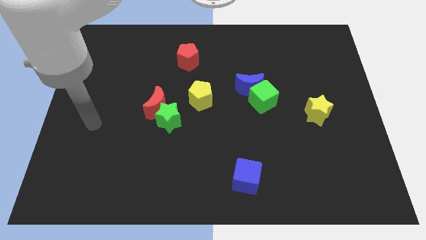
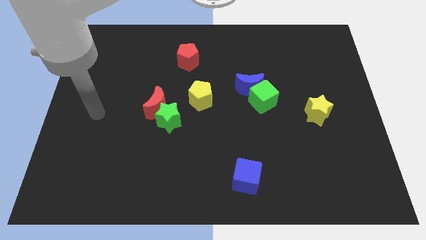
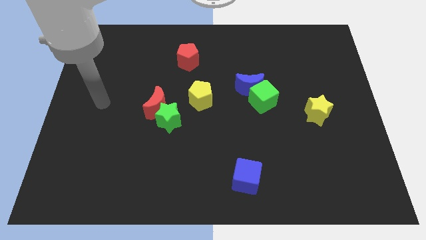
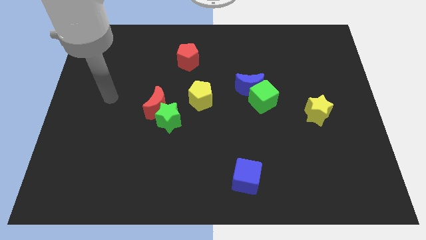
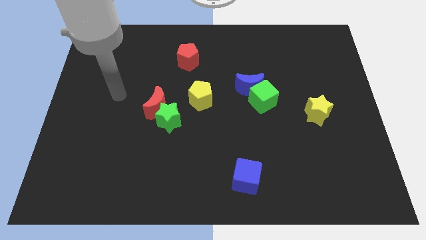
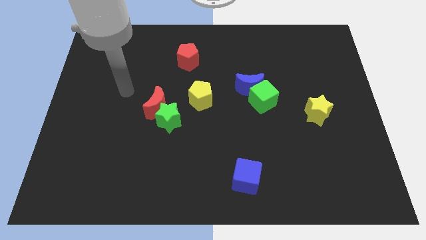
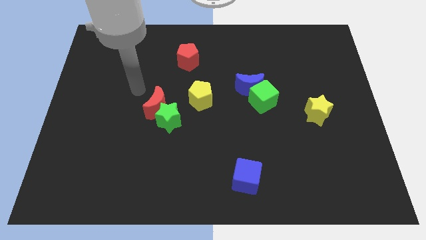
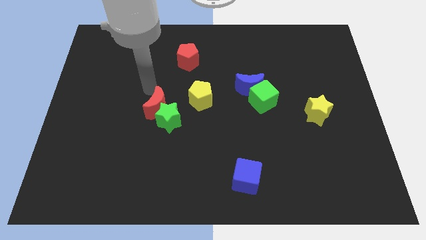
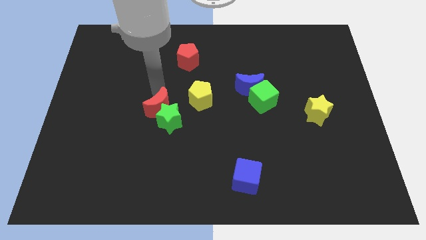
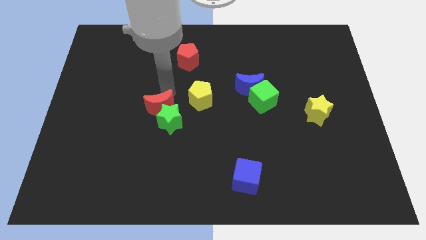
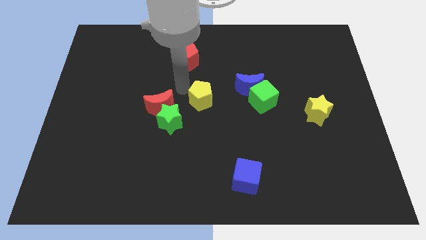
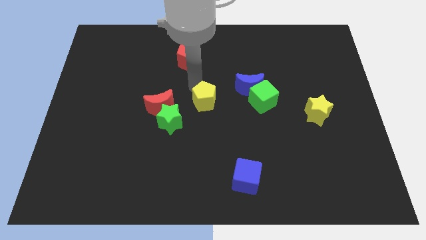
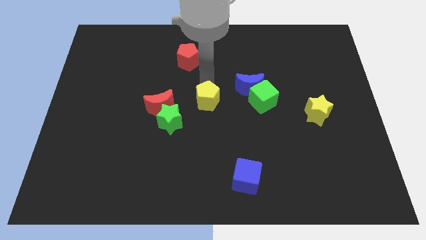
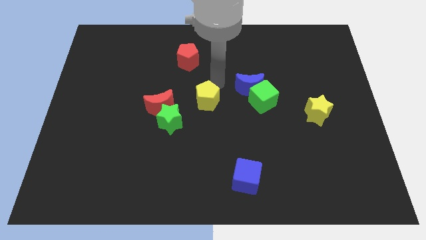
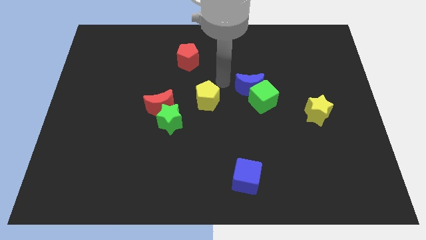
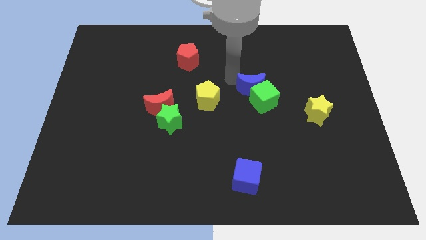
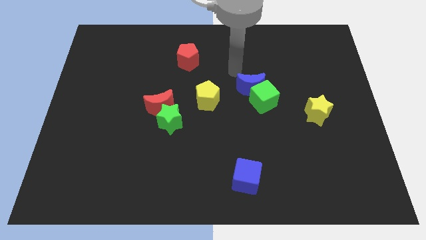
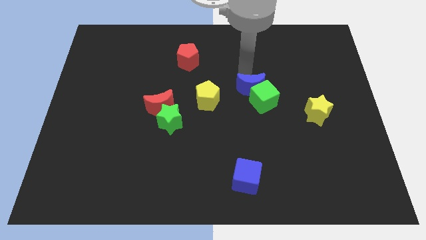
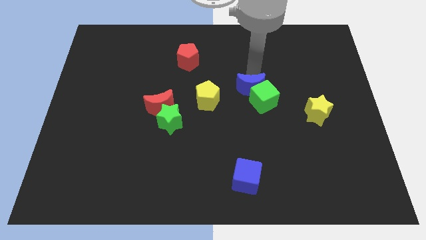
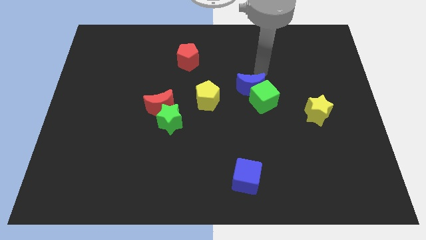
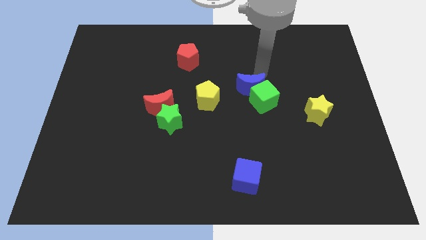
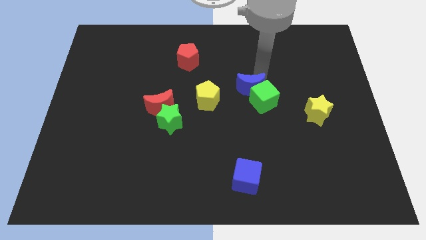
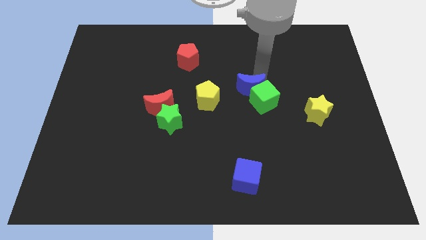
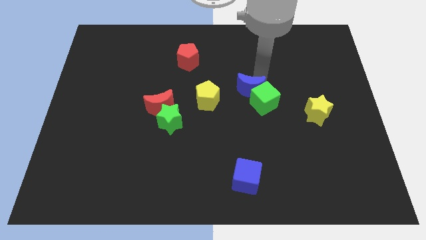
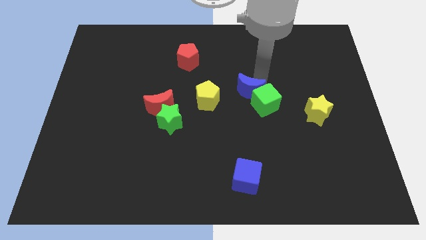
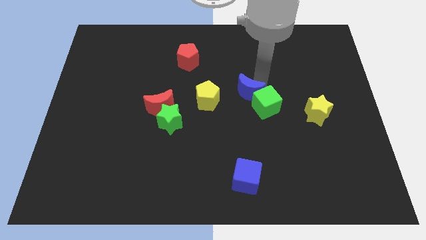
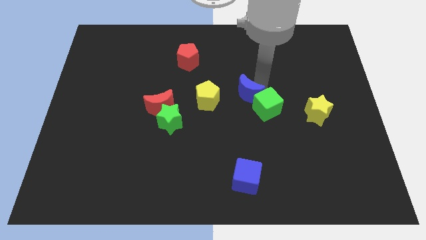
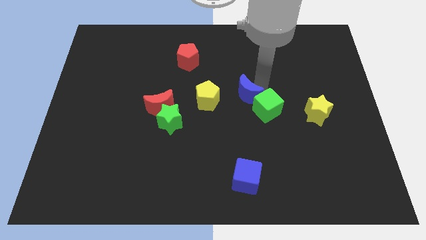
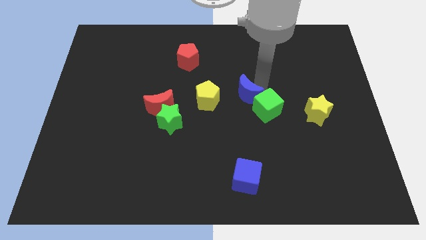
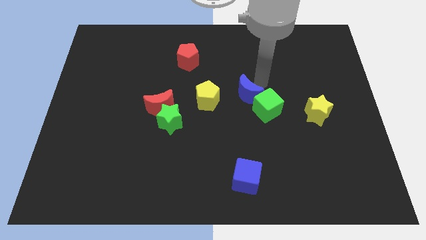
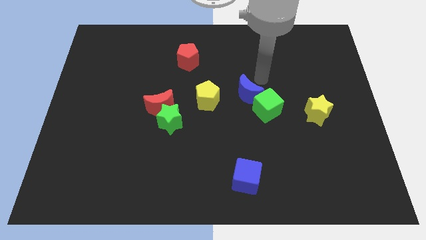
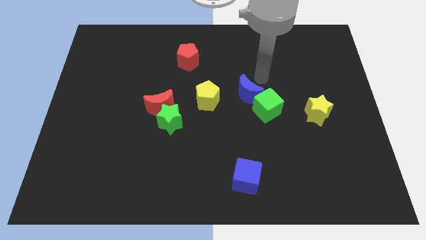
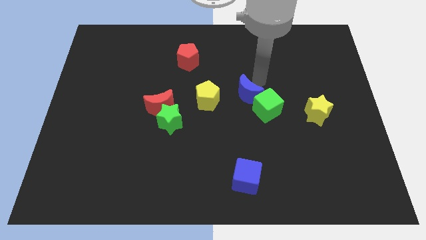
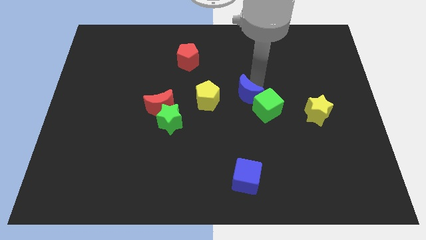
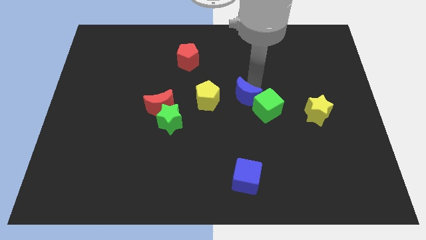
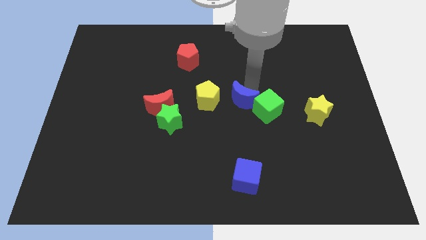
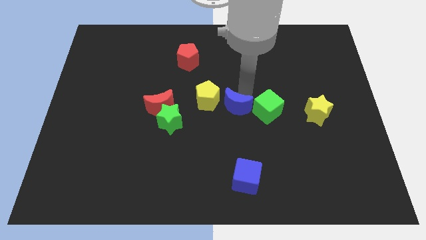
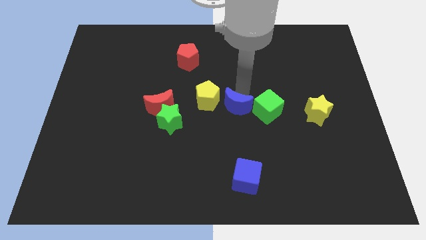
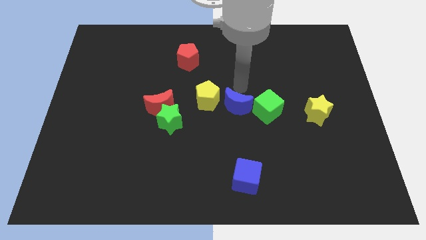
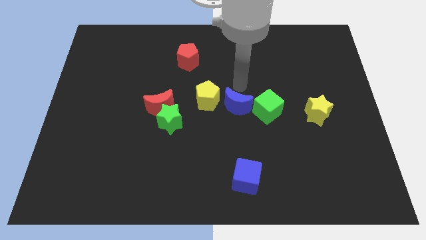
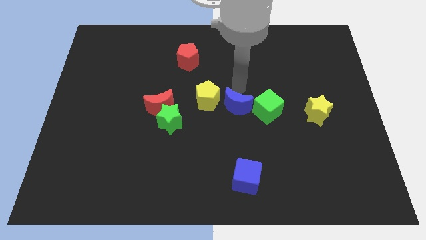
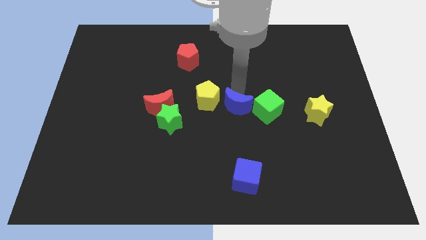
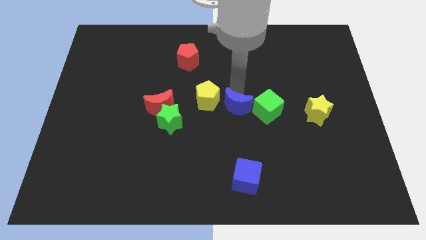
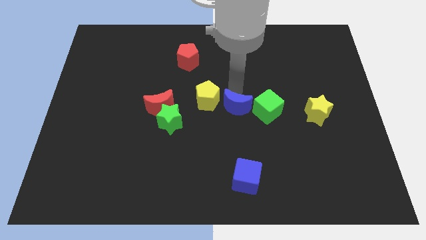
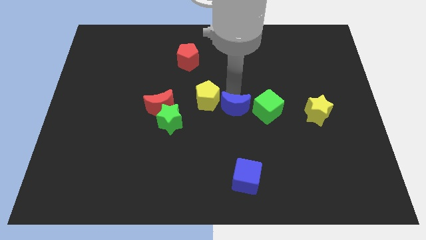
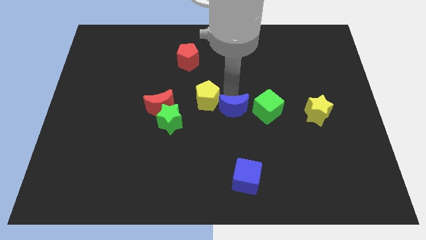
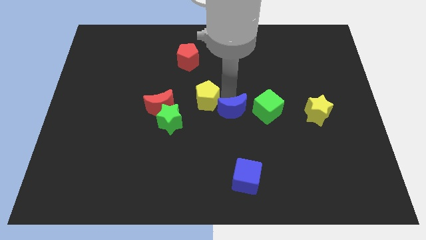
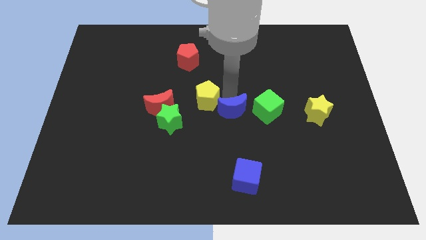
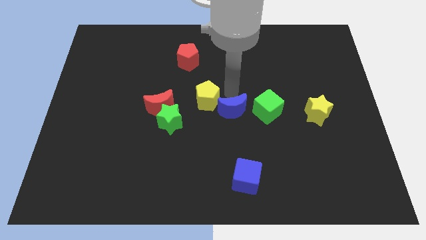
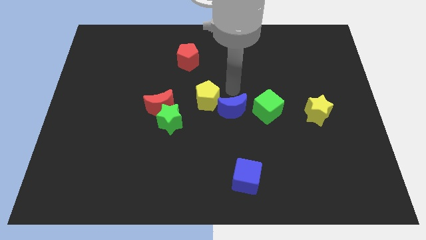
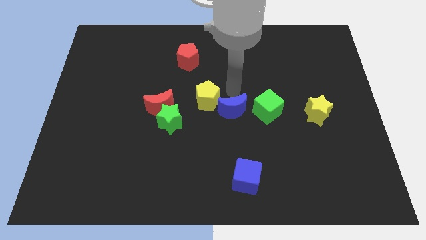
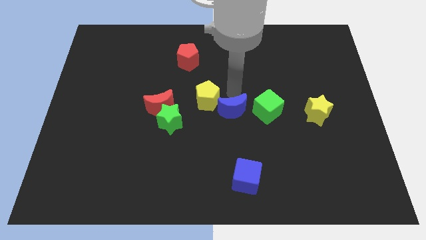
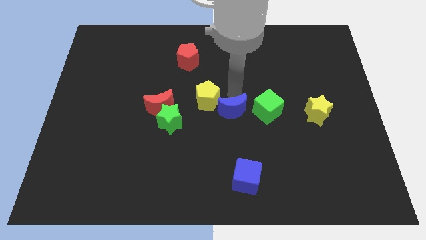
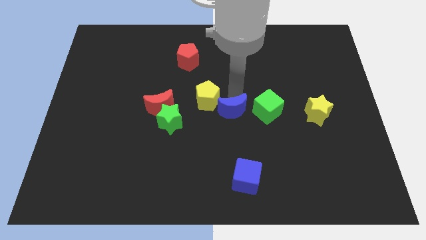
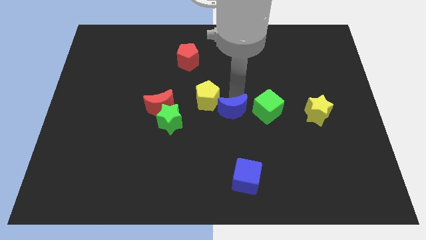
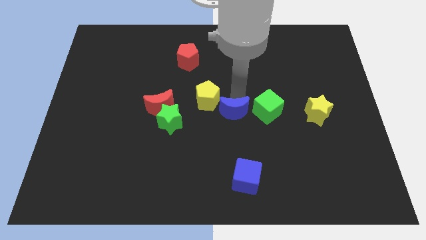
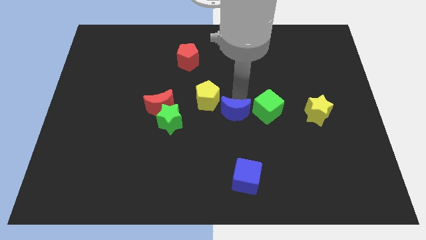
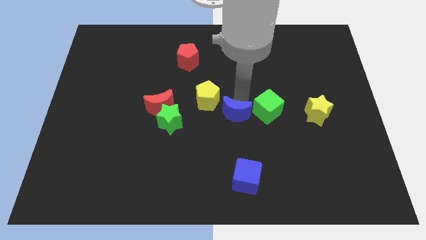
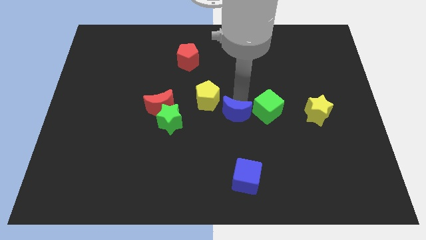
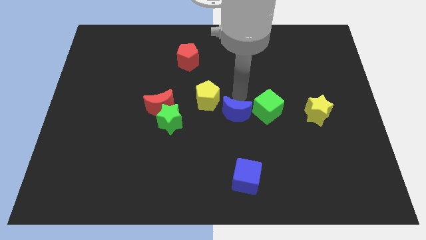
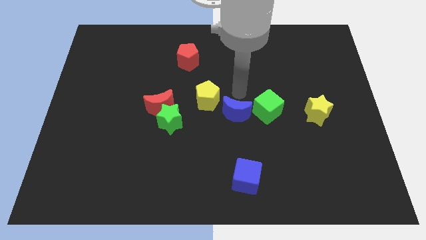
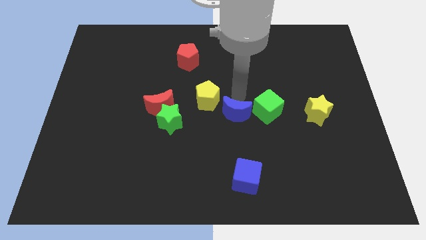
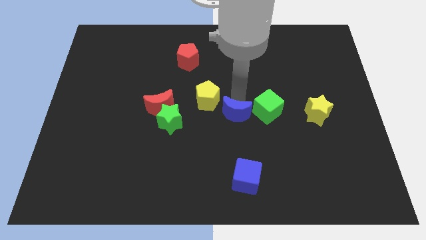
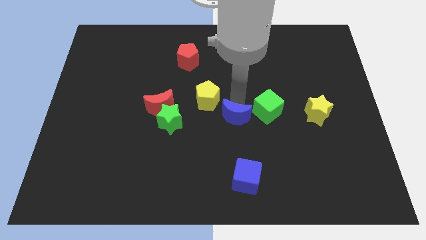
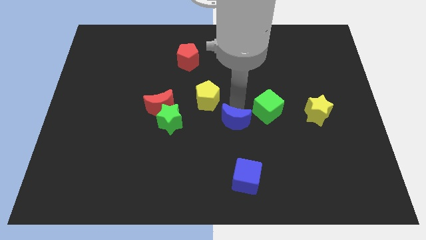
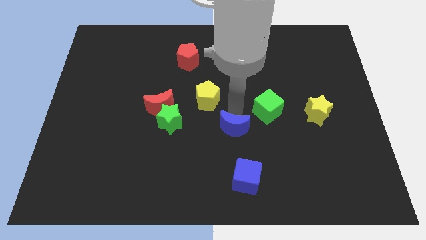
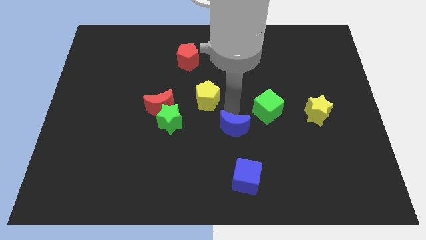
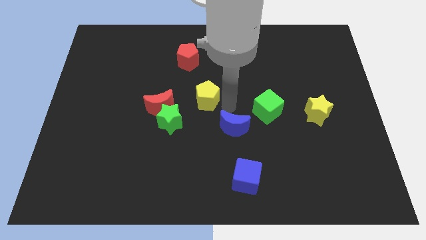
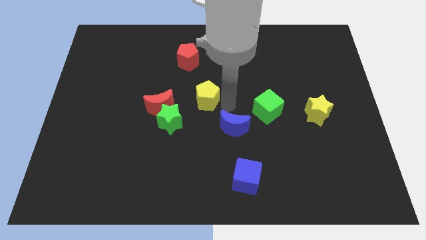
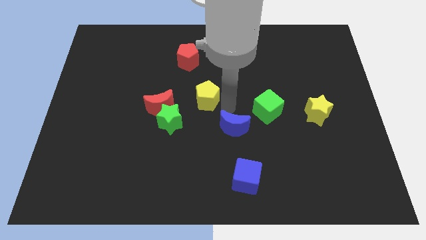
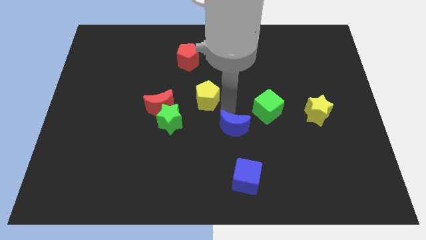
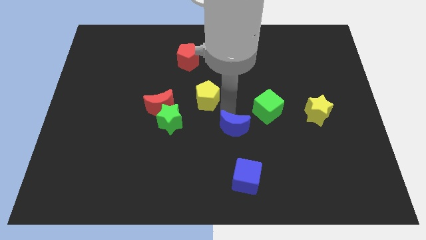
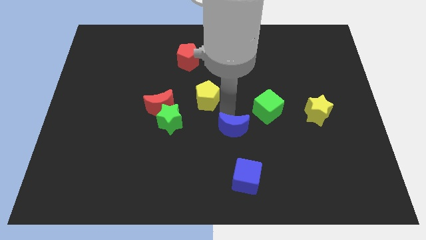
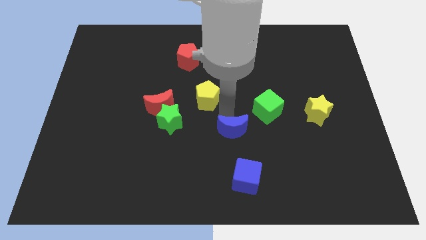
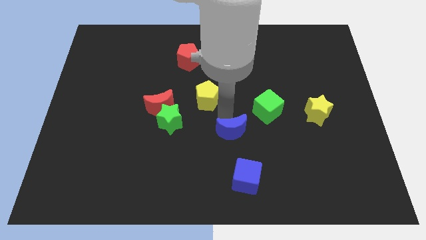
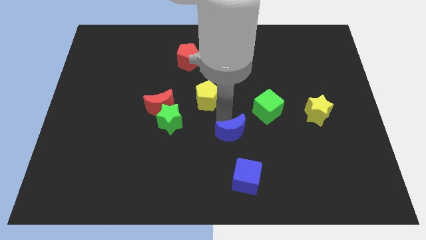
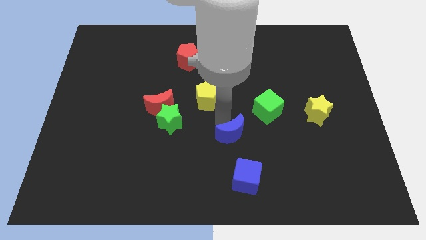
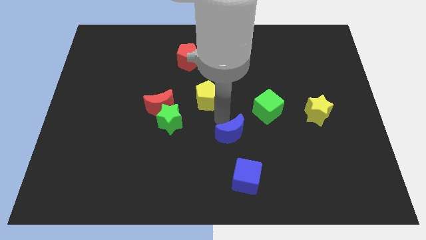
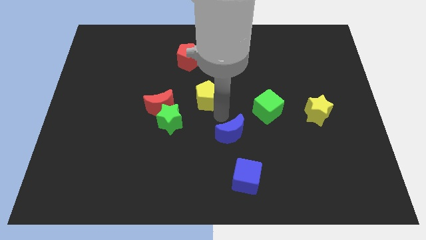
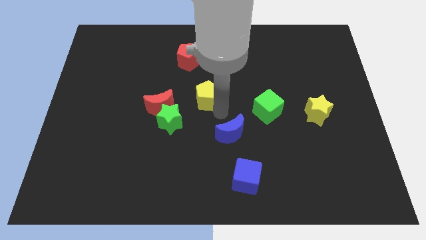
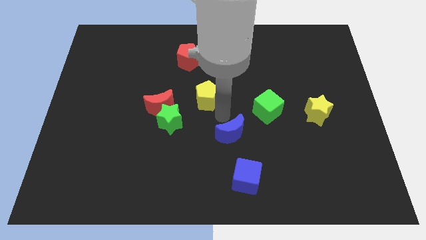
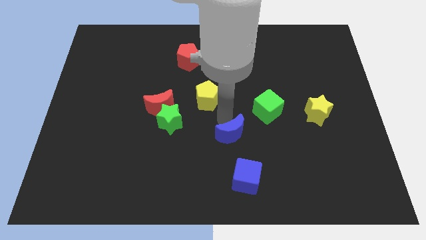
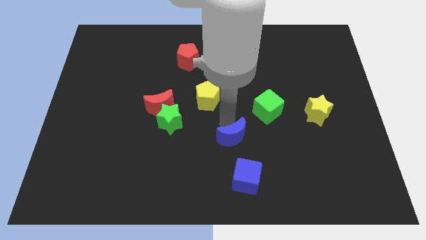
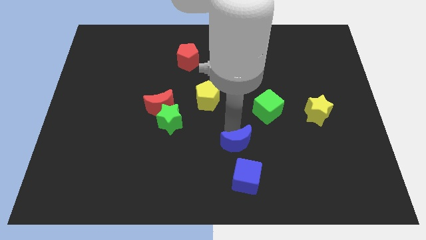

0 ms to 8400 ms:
move the blue moon diagonally up and to the left of the blue cube
